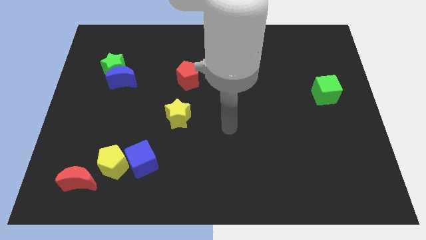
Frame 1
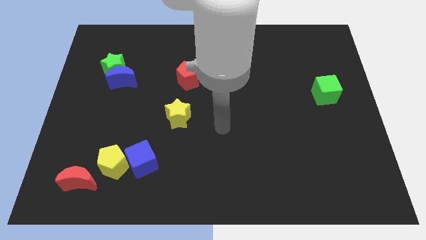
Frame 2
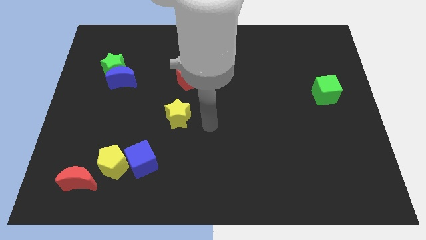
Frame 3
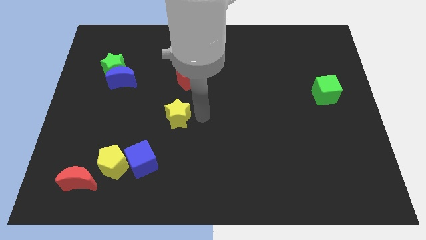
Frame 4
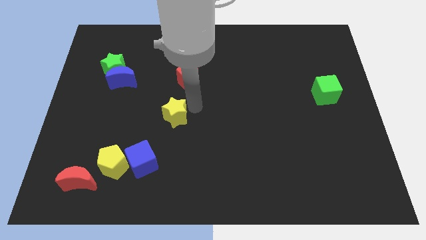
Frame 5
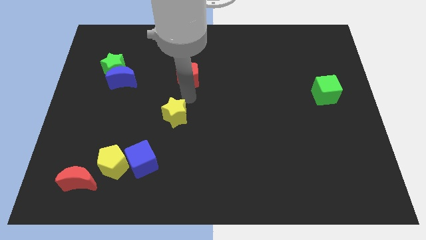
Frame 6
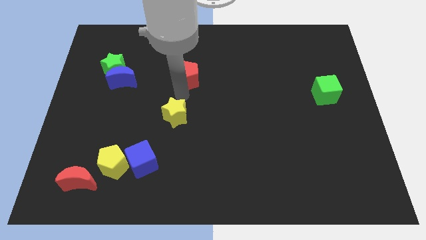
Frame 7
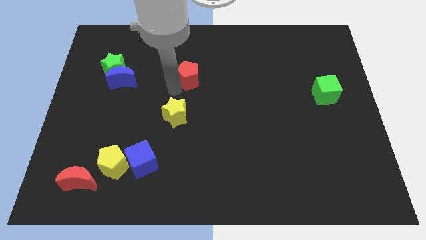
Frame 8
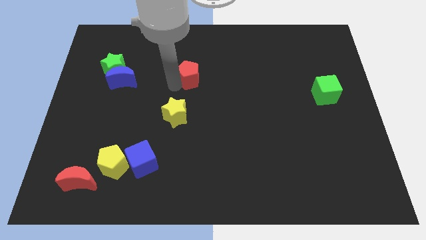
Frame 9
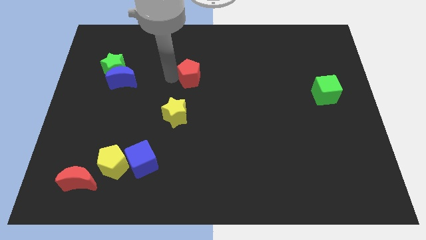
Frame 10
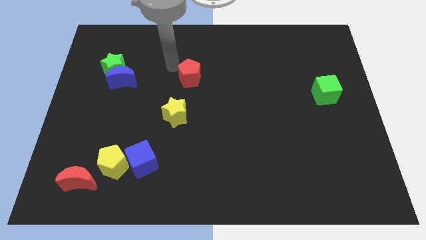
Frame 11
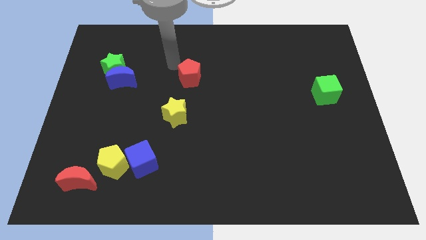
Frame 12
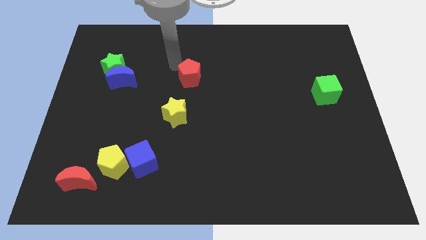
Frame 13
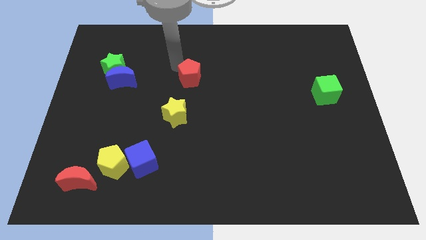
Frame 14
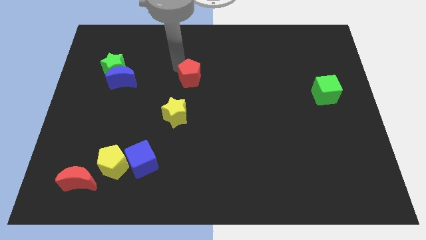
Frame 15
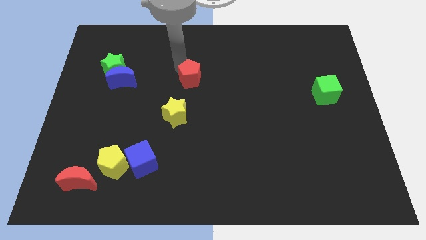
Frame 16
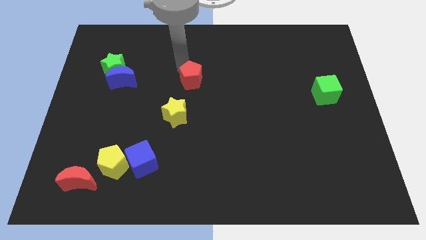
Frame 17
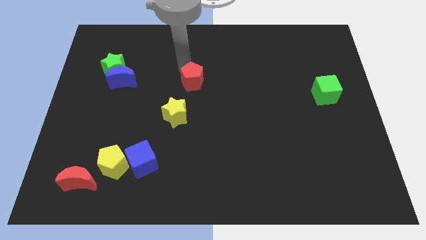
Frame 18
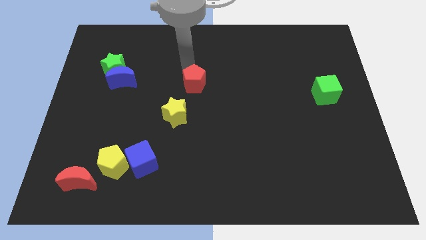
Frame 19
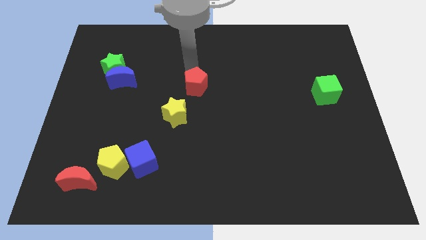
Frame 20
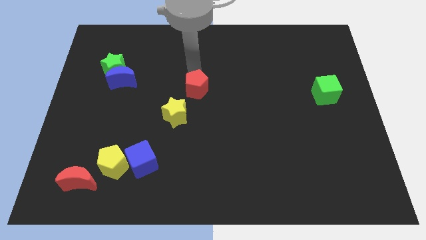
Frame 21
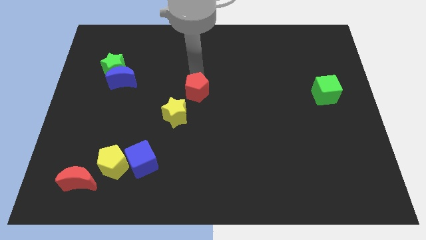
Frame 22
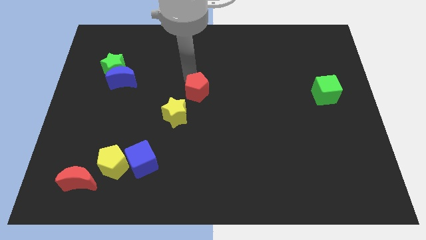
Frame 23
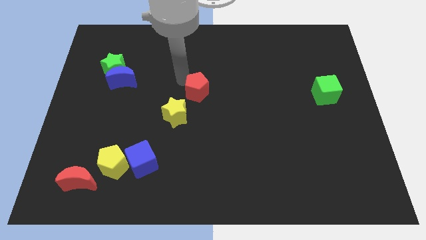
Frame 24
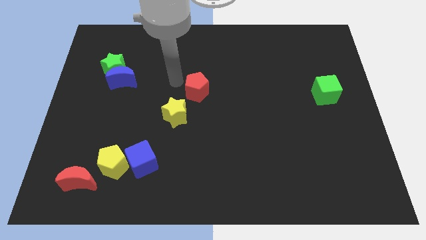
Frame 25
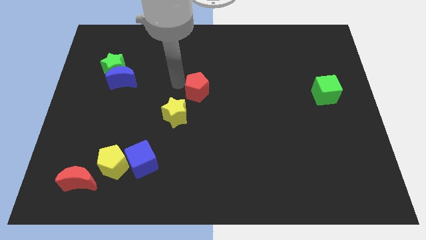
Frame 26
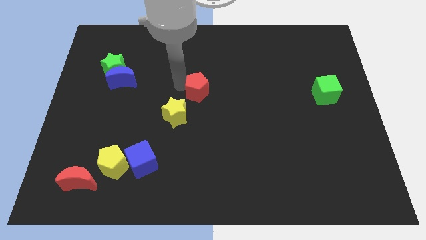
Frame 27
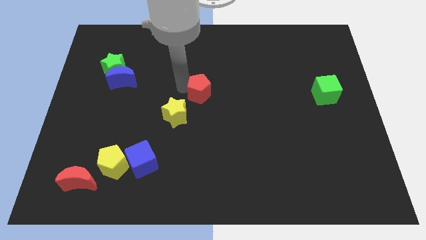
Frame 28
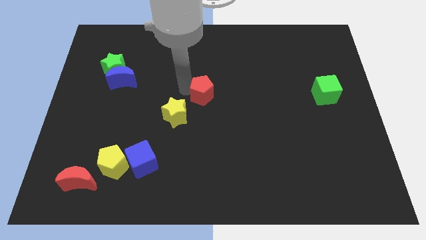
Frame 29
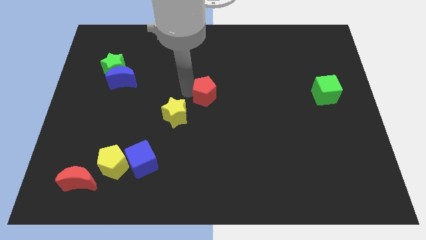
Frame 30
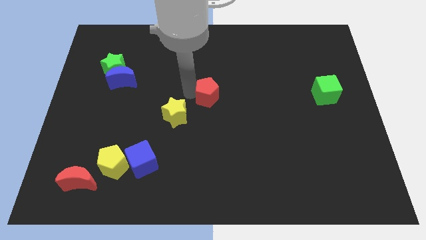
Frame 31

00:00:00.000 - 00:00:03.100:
slide the red pentagon down and right a little

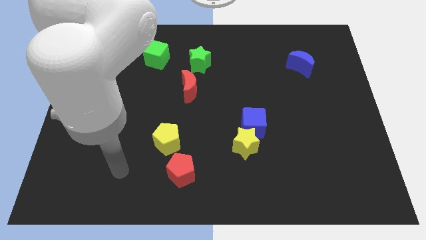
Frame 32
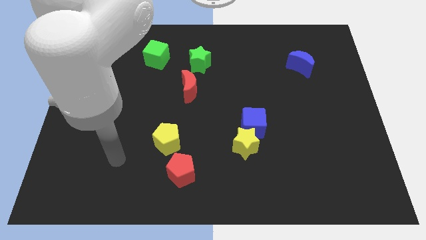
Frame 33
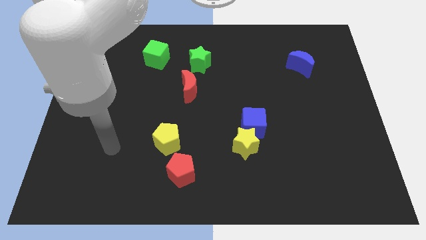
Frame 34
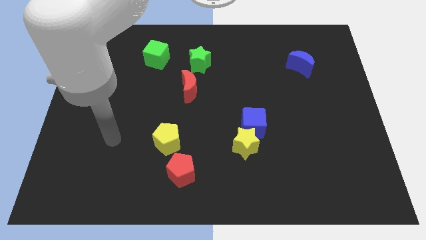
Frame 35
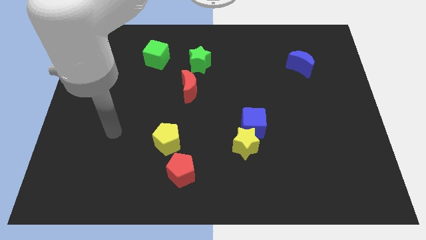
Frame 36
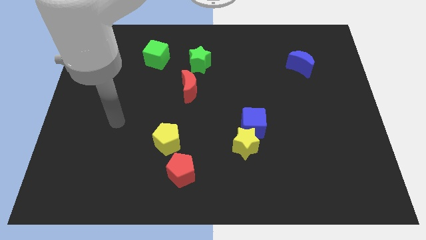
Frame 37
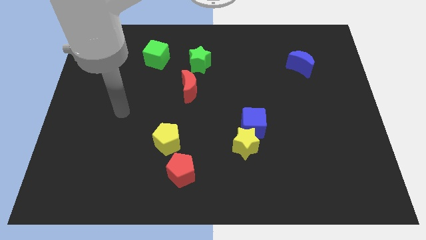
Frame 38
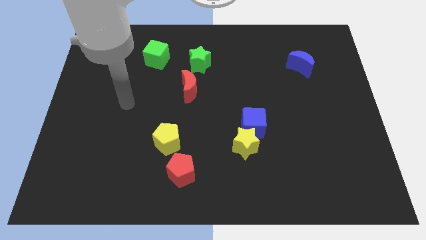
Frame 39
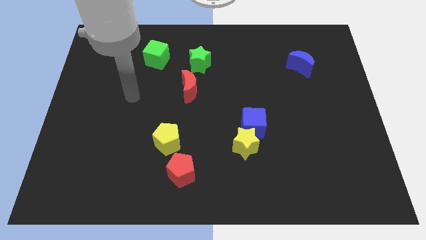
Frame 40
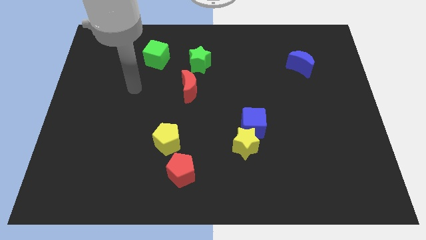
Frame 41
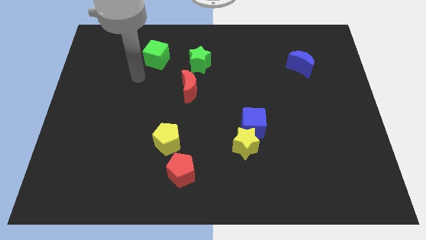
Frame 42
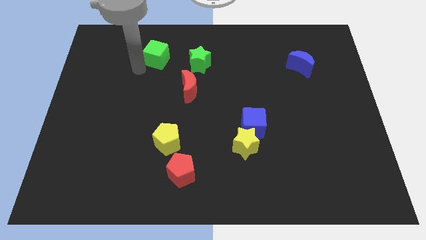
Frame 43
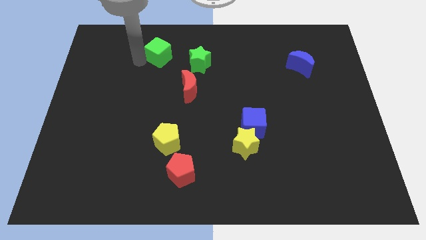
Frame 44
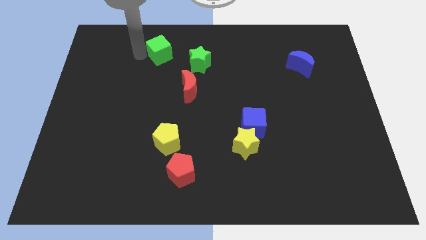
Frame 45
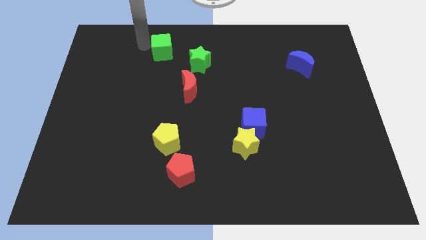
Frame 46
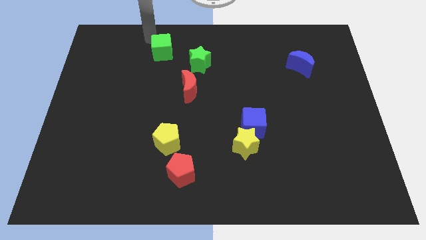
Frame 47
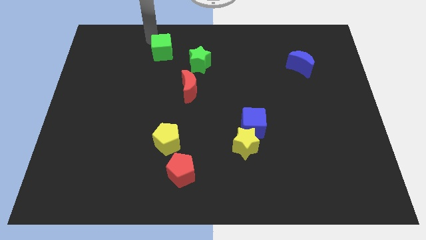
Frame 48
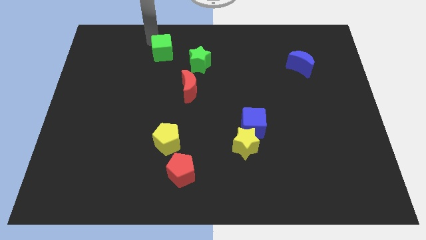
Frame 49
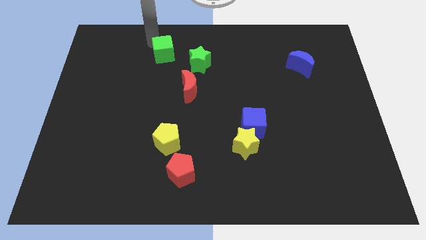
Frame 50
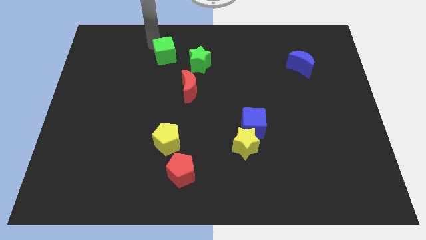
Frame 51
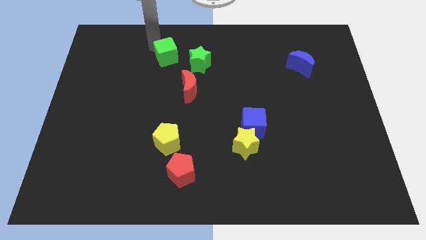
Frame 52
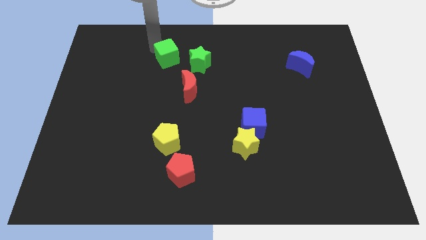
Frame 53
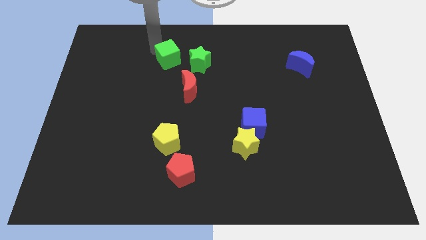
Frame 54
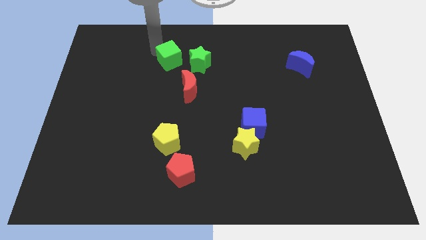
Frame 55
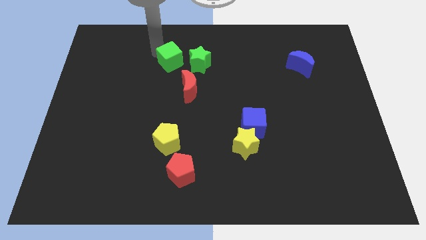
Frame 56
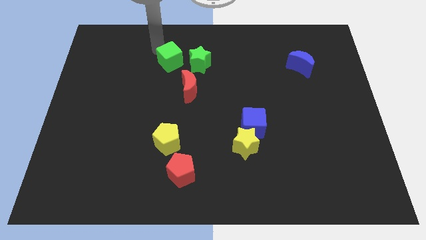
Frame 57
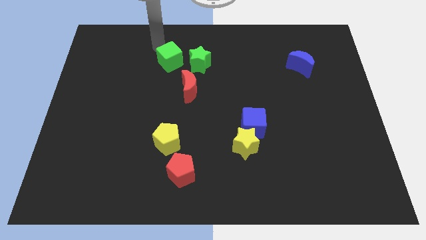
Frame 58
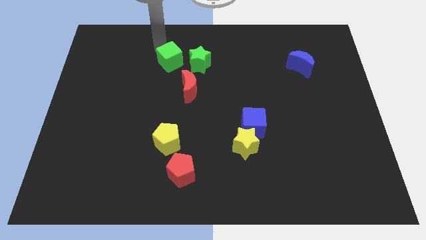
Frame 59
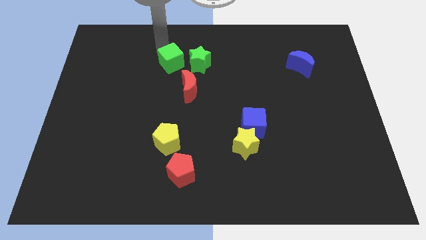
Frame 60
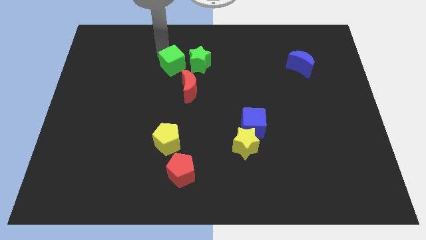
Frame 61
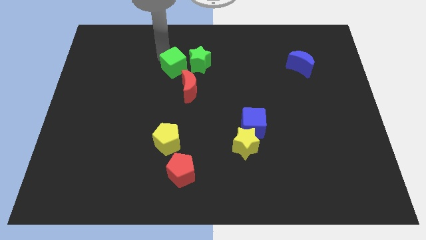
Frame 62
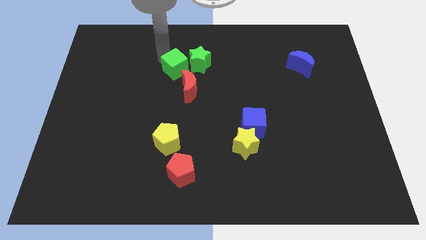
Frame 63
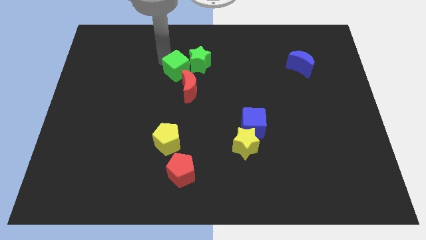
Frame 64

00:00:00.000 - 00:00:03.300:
slightly slide the green cube downwards and then right

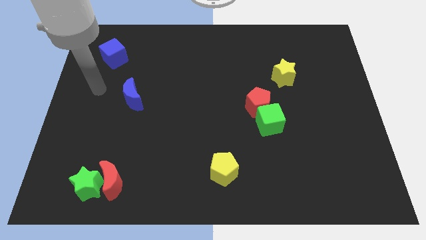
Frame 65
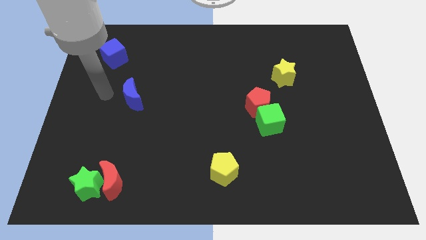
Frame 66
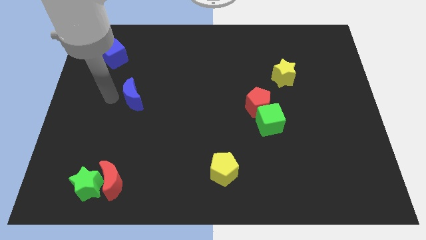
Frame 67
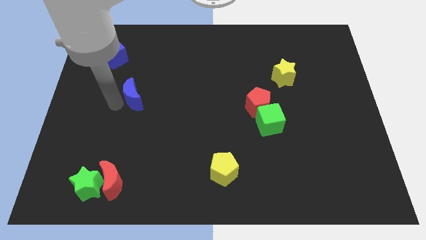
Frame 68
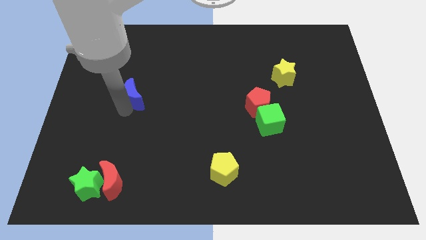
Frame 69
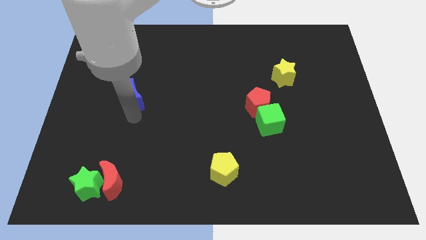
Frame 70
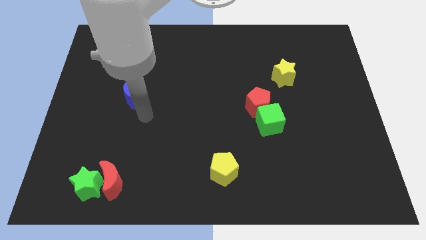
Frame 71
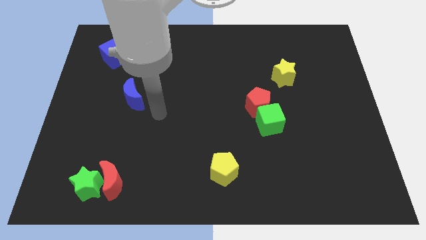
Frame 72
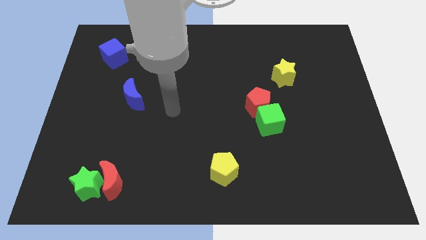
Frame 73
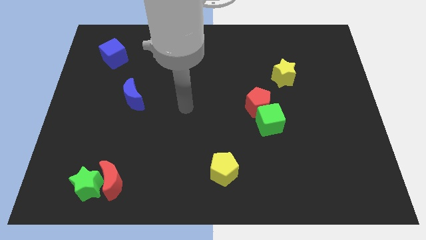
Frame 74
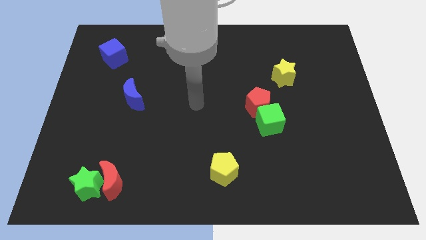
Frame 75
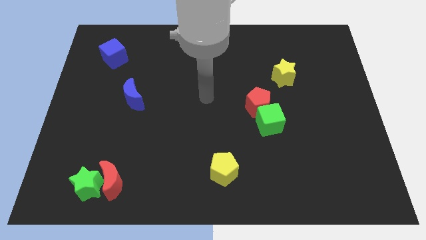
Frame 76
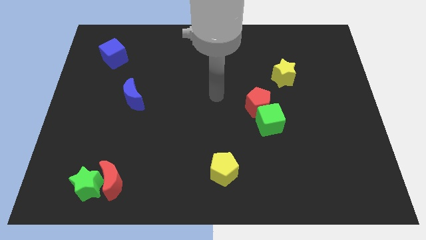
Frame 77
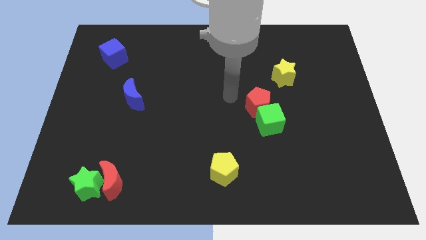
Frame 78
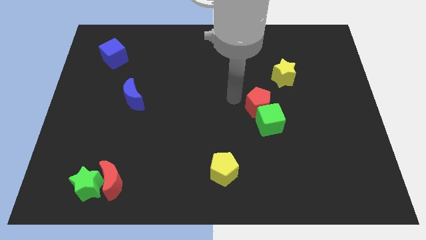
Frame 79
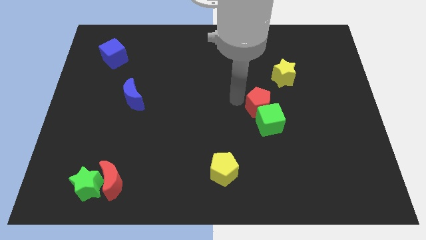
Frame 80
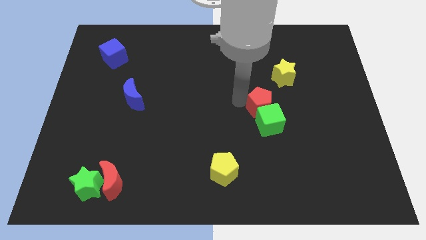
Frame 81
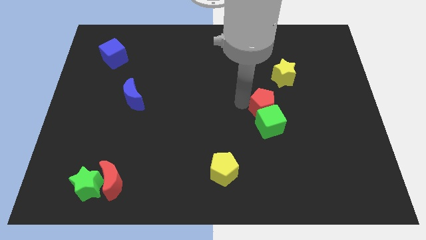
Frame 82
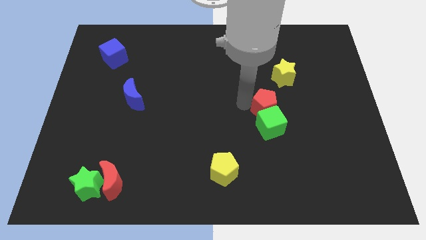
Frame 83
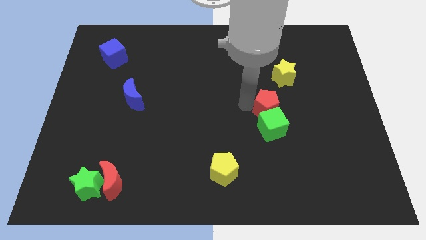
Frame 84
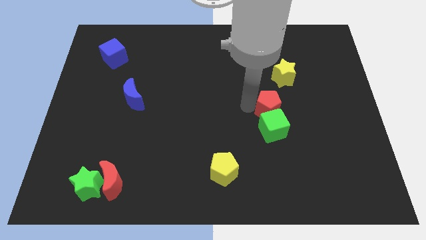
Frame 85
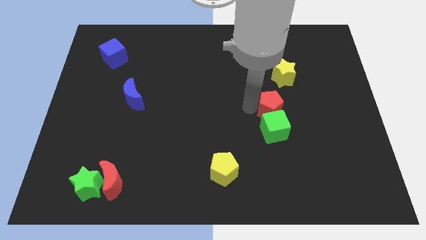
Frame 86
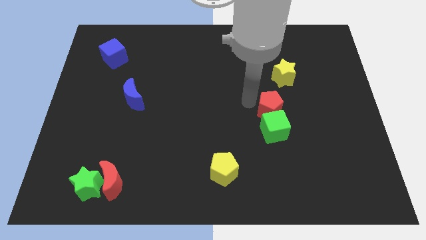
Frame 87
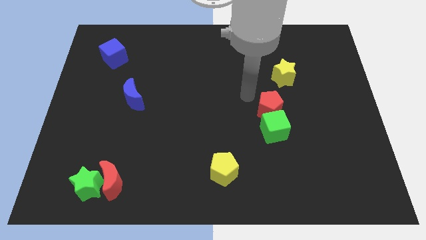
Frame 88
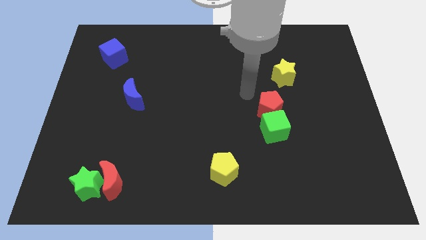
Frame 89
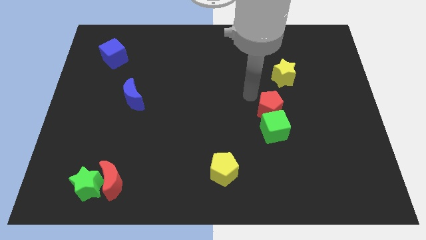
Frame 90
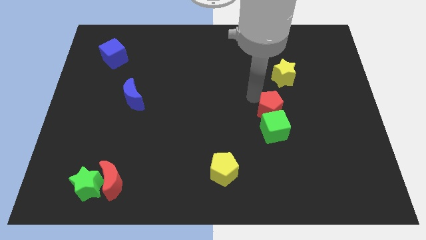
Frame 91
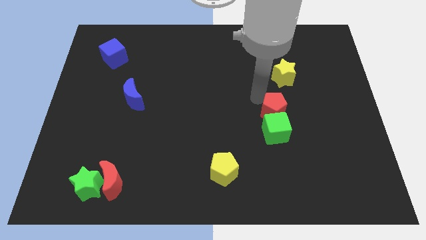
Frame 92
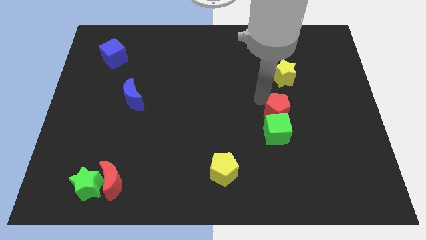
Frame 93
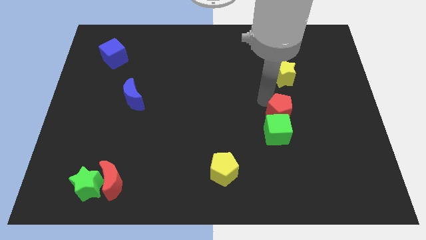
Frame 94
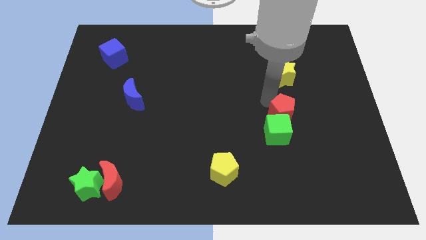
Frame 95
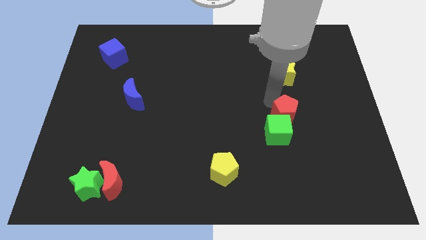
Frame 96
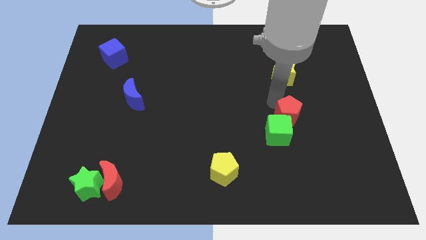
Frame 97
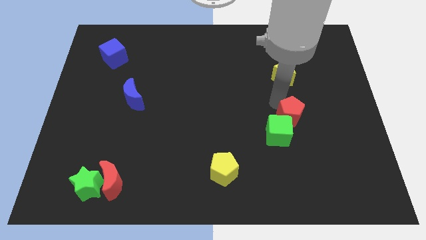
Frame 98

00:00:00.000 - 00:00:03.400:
slide the red pentagon somewhat downwards and right diagonally
